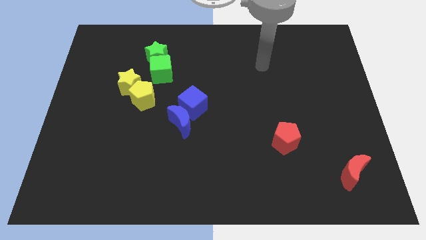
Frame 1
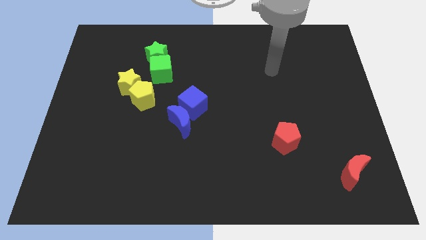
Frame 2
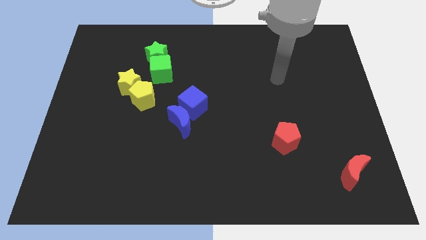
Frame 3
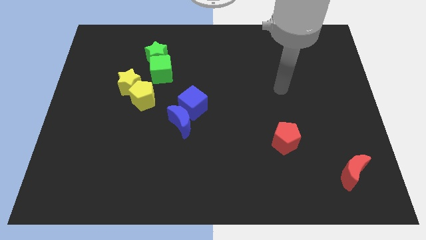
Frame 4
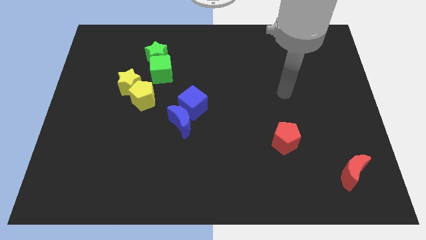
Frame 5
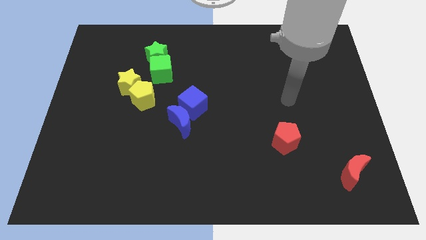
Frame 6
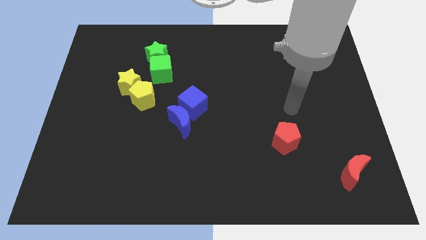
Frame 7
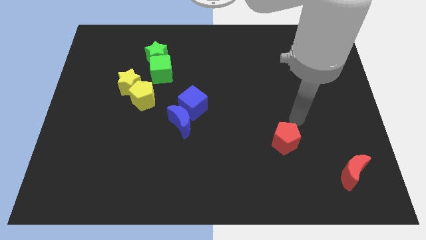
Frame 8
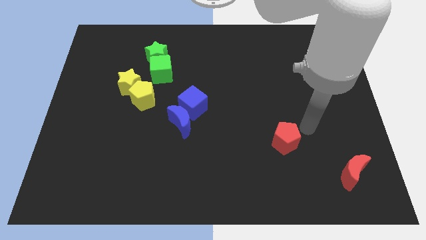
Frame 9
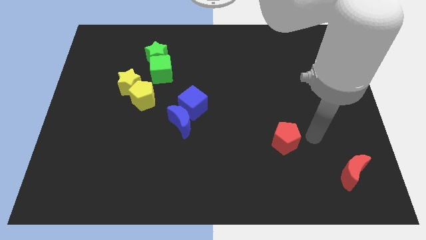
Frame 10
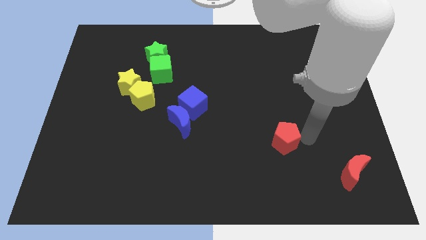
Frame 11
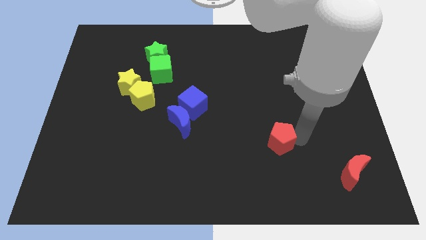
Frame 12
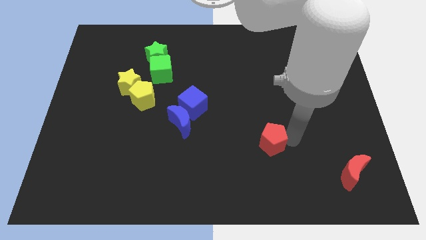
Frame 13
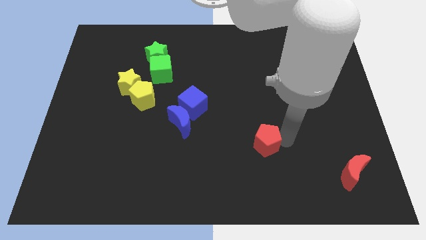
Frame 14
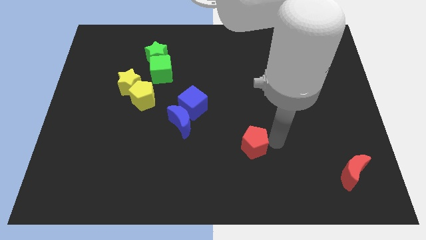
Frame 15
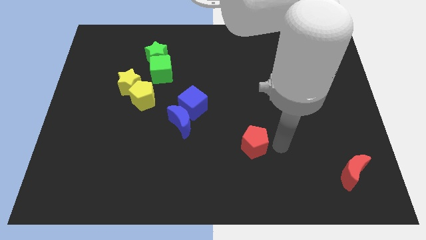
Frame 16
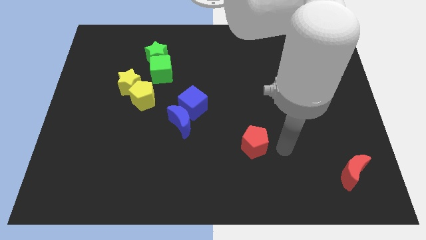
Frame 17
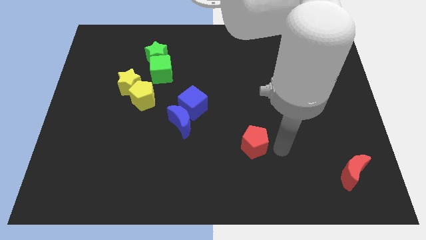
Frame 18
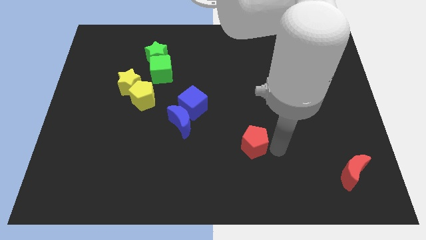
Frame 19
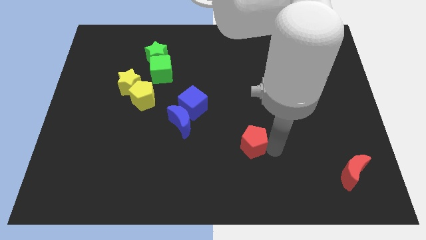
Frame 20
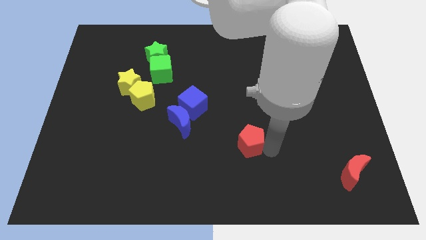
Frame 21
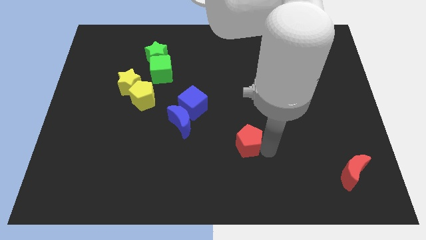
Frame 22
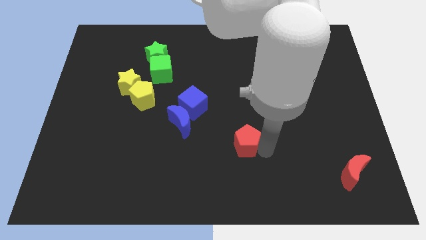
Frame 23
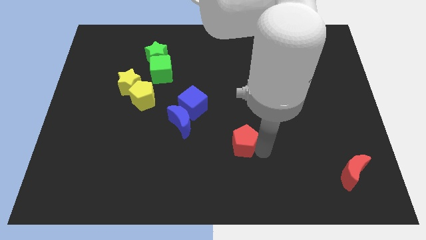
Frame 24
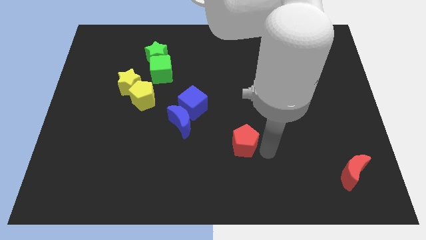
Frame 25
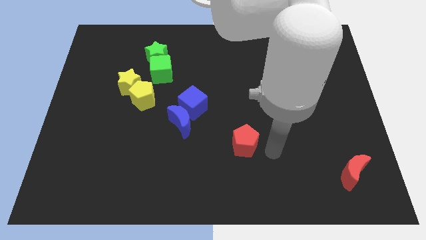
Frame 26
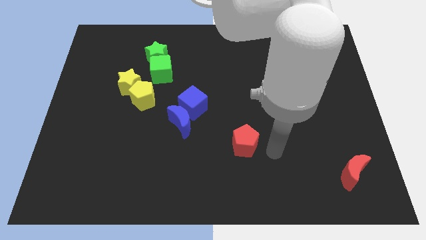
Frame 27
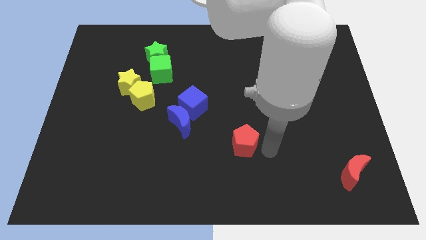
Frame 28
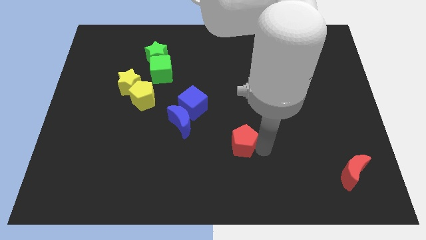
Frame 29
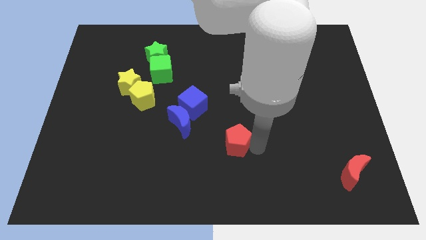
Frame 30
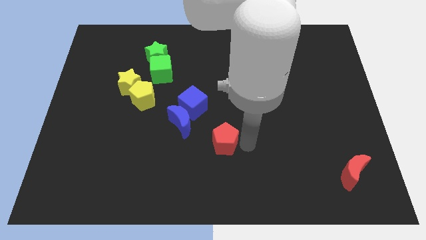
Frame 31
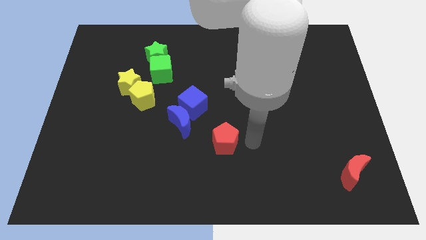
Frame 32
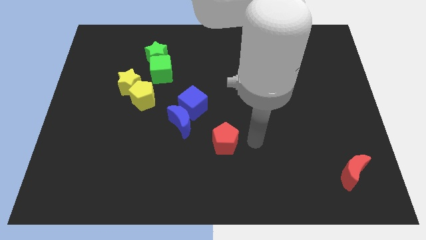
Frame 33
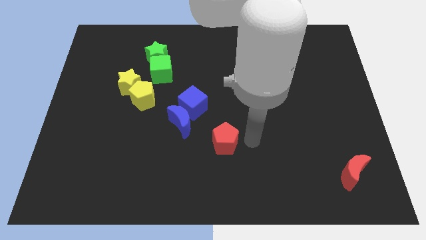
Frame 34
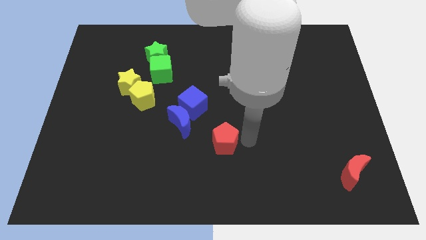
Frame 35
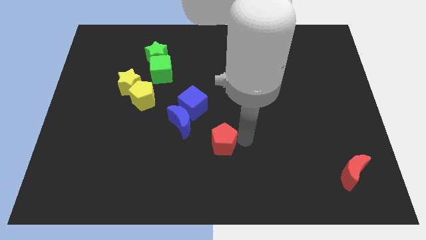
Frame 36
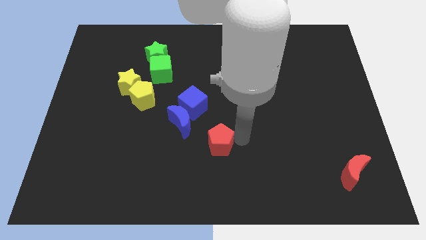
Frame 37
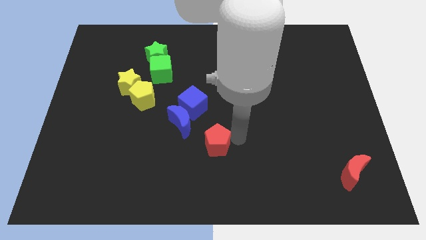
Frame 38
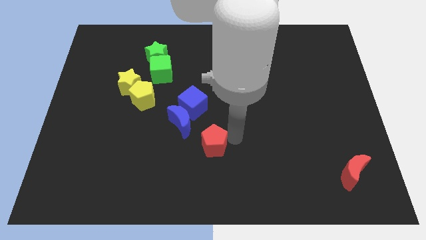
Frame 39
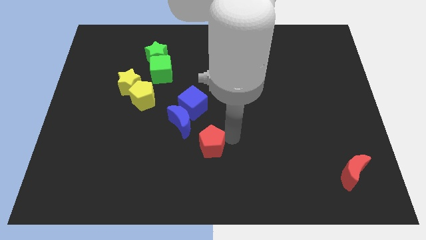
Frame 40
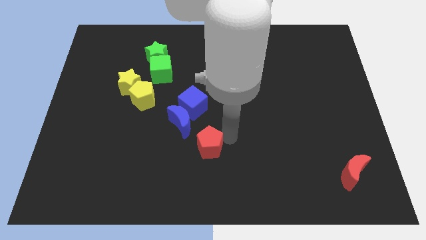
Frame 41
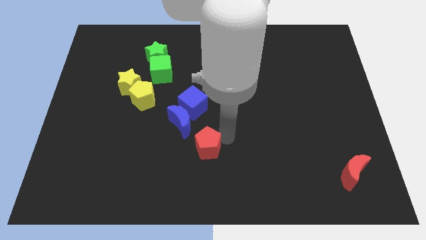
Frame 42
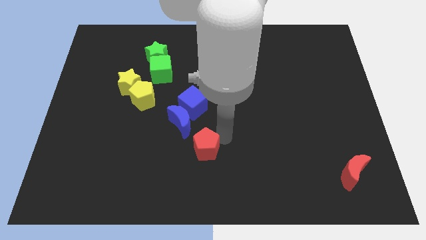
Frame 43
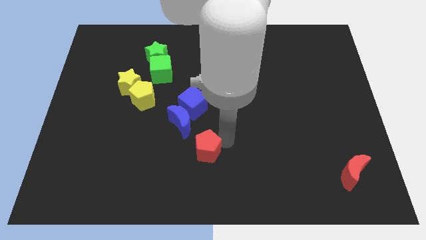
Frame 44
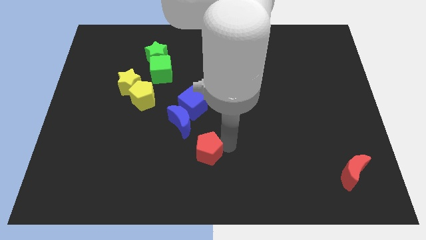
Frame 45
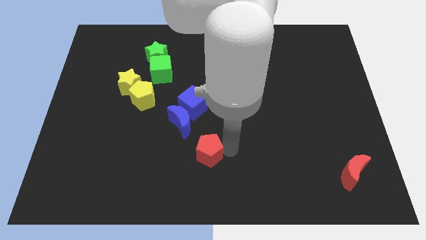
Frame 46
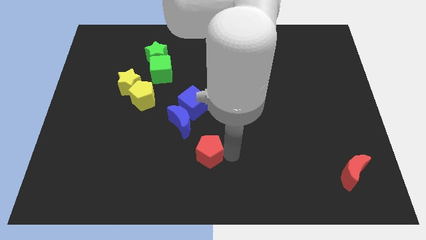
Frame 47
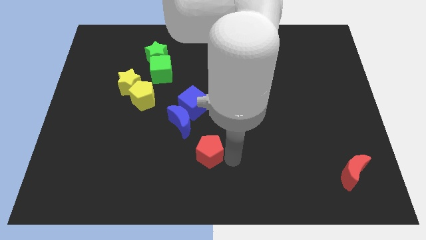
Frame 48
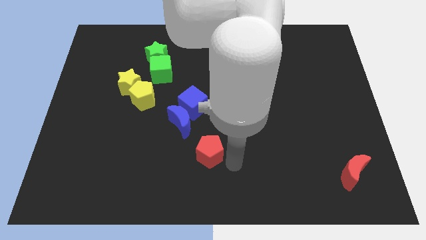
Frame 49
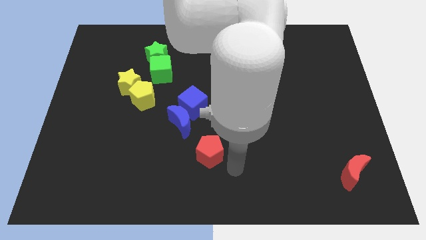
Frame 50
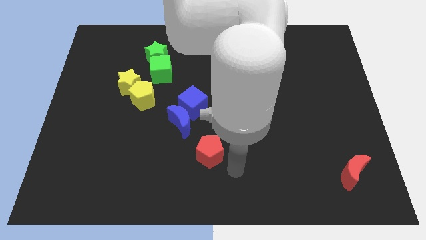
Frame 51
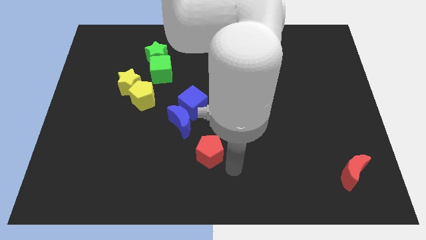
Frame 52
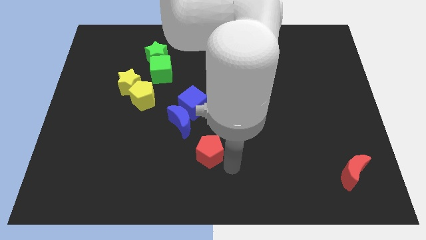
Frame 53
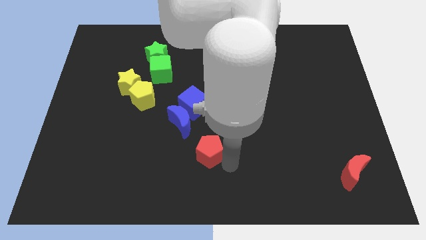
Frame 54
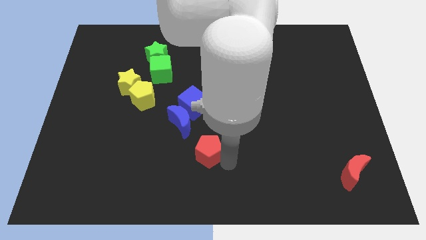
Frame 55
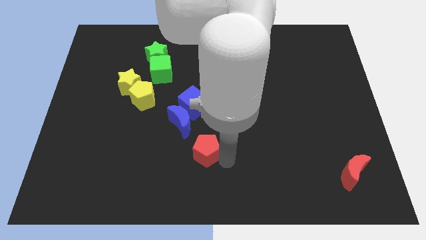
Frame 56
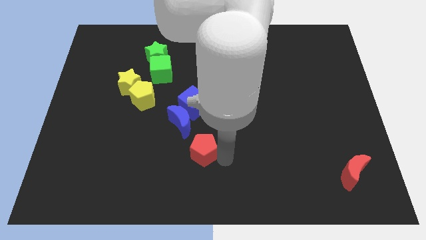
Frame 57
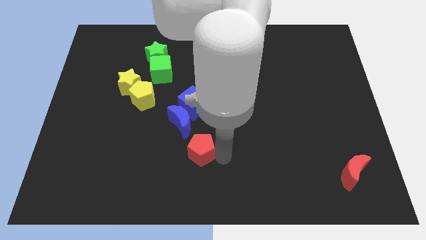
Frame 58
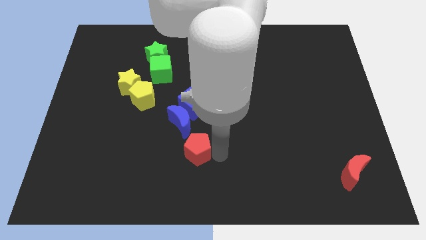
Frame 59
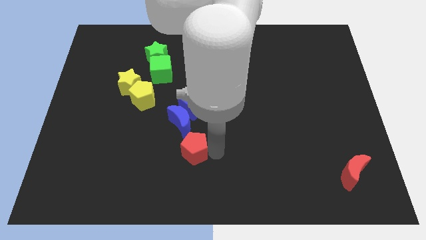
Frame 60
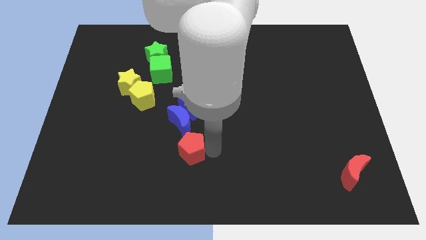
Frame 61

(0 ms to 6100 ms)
move the red pentagon left

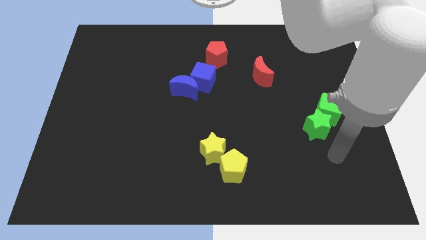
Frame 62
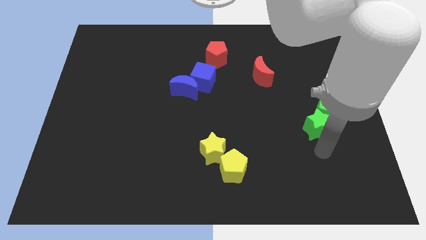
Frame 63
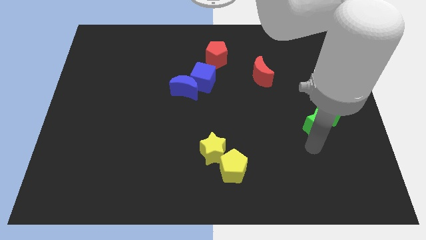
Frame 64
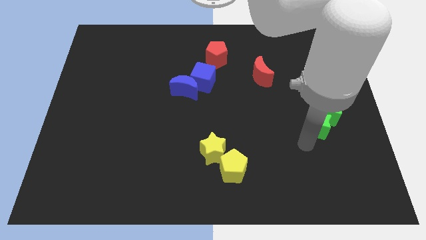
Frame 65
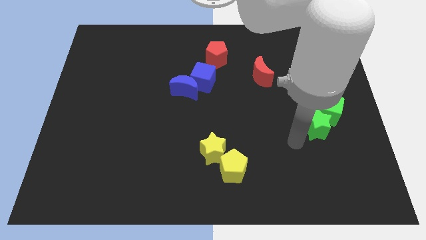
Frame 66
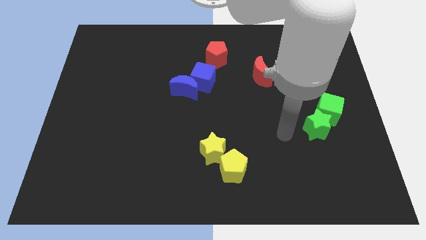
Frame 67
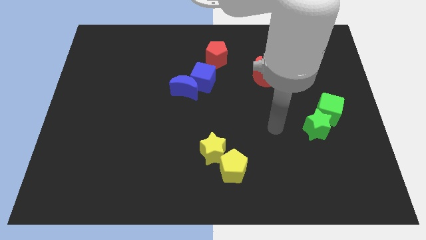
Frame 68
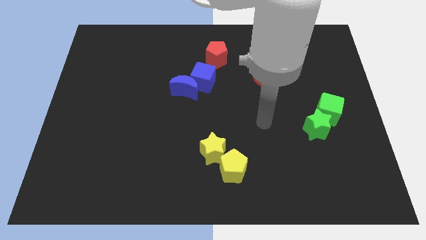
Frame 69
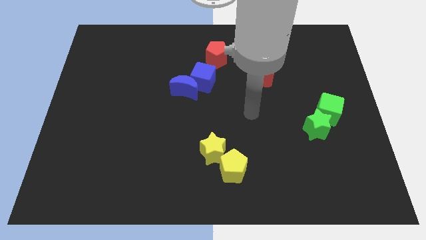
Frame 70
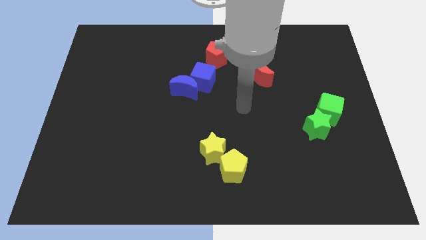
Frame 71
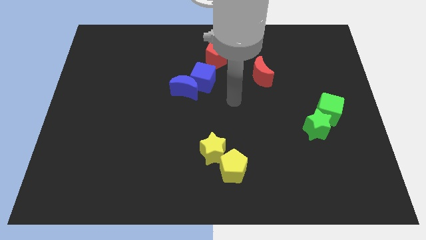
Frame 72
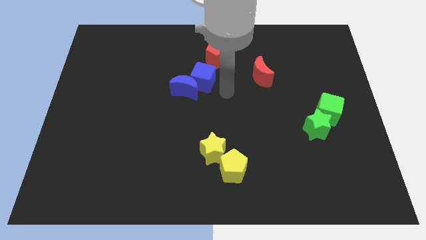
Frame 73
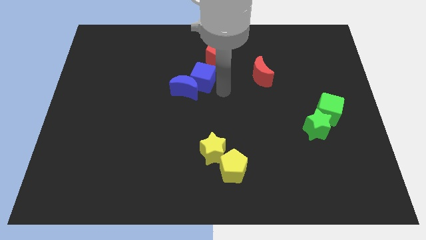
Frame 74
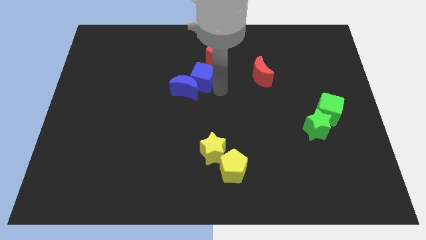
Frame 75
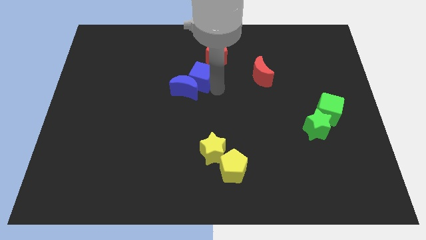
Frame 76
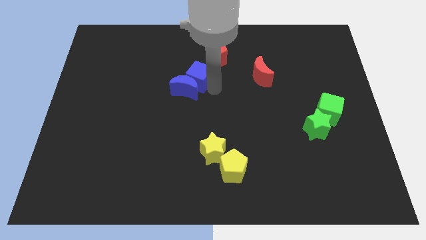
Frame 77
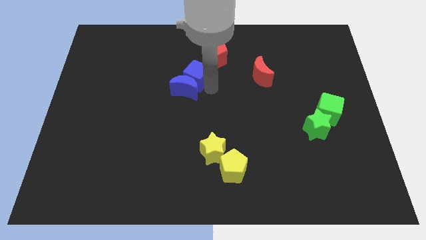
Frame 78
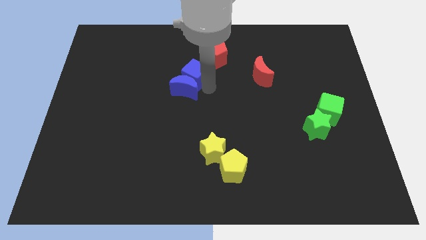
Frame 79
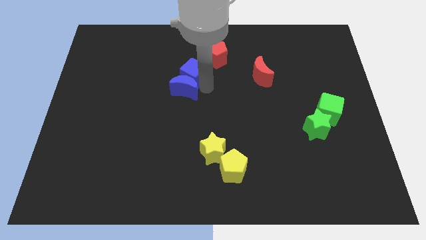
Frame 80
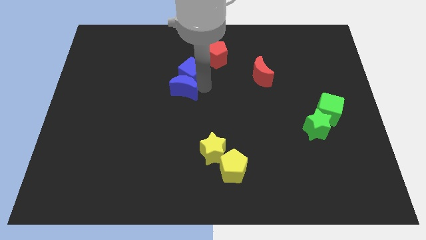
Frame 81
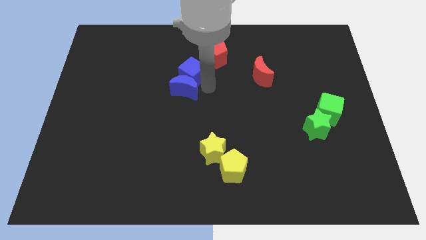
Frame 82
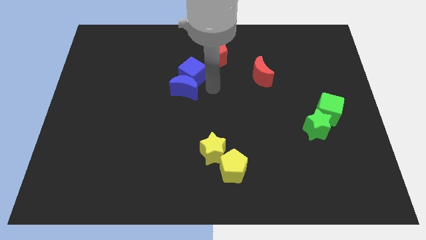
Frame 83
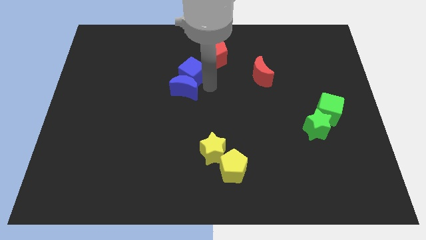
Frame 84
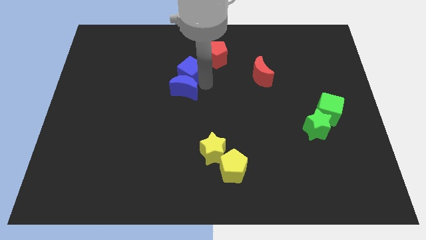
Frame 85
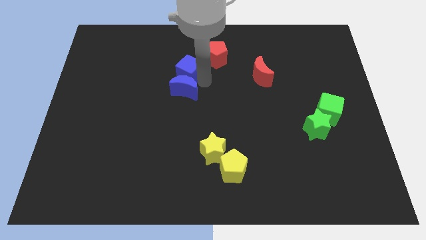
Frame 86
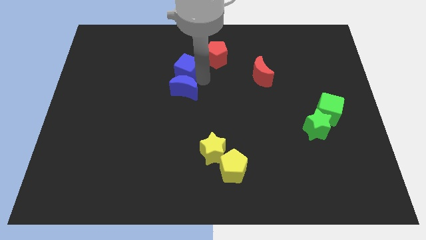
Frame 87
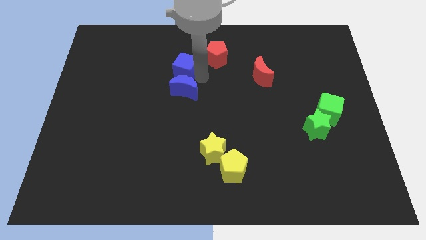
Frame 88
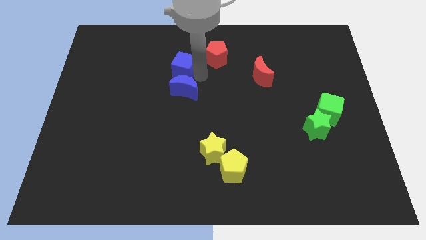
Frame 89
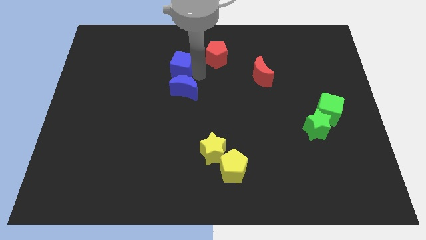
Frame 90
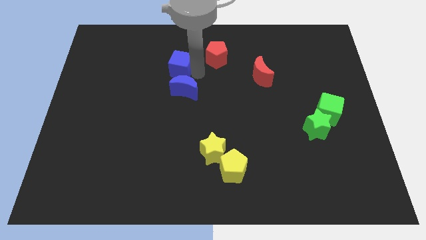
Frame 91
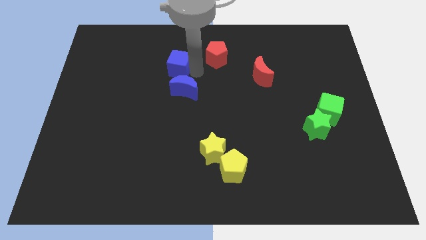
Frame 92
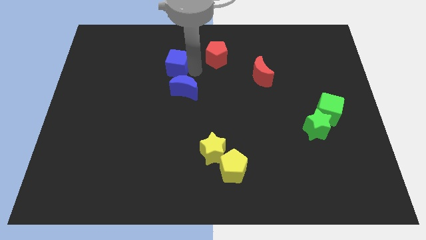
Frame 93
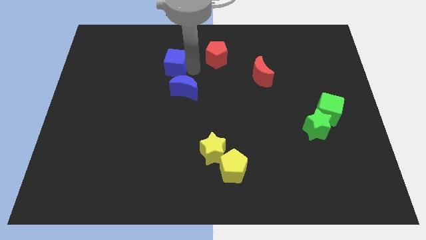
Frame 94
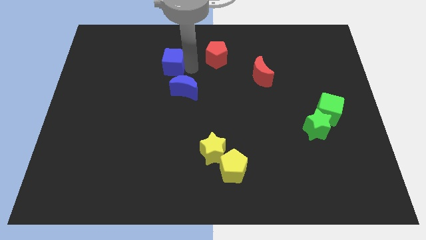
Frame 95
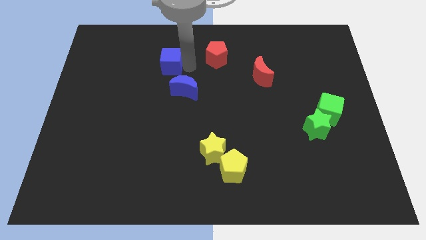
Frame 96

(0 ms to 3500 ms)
slide the blue cube a little bit to the left
